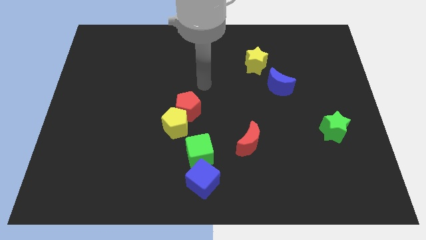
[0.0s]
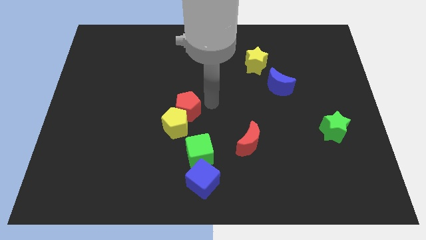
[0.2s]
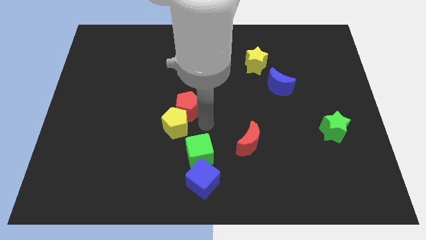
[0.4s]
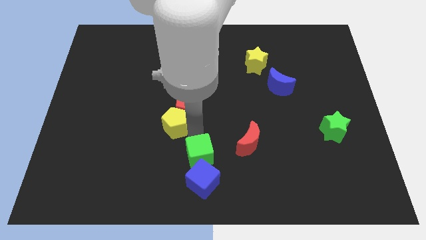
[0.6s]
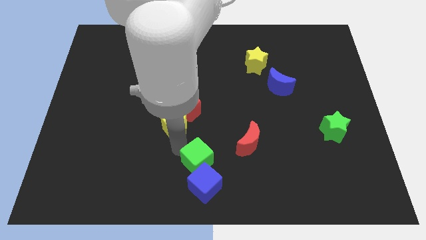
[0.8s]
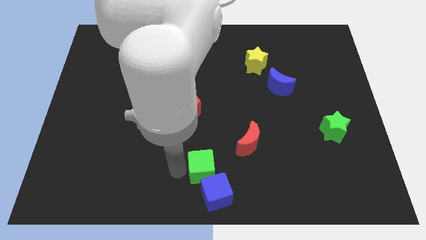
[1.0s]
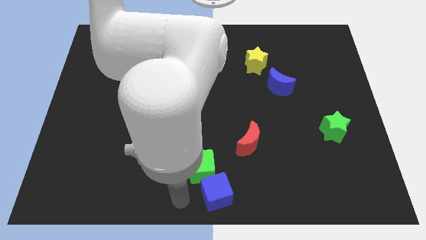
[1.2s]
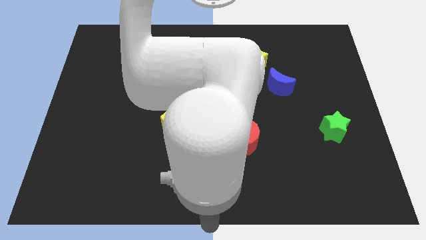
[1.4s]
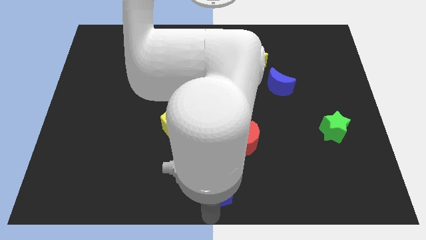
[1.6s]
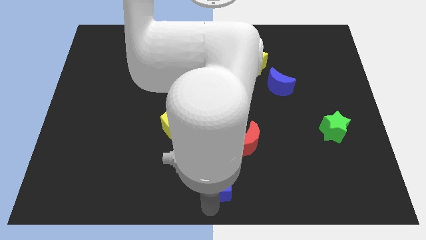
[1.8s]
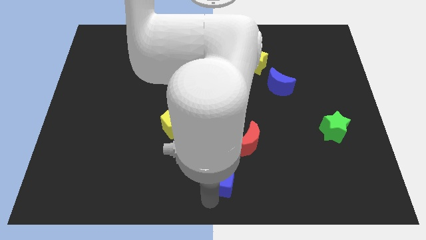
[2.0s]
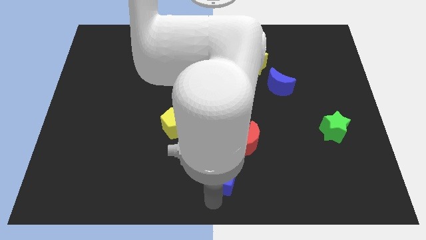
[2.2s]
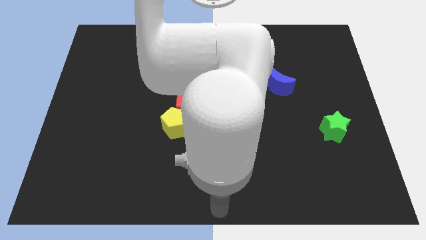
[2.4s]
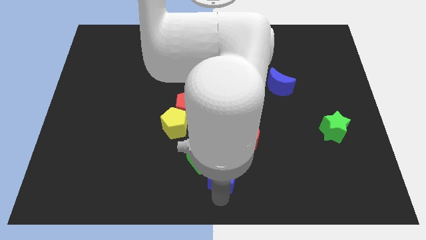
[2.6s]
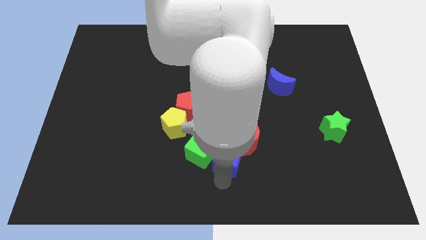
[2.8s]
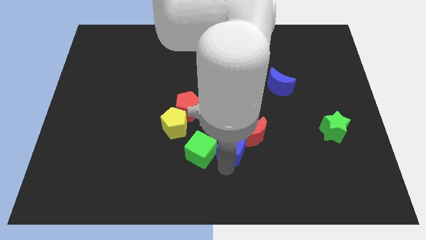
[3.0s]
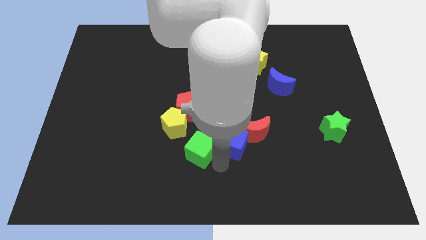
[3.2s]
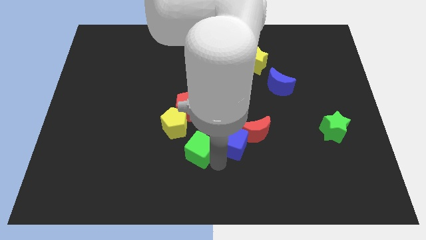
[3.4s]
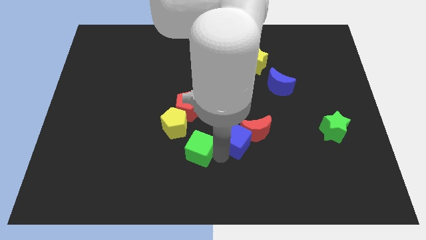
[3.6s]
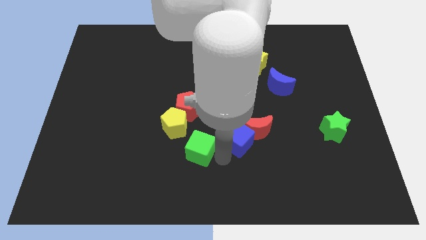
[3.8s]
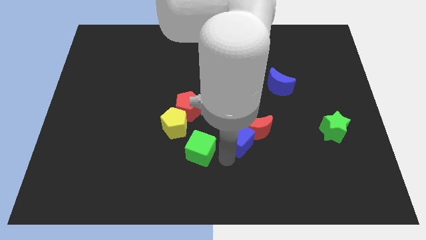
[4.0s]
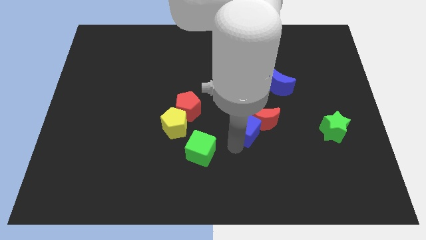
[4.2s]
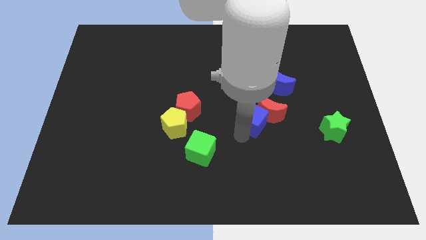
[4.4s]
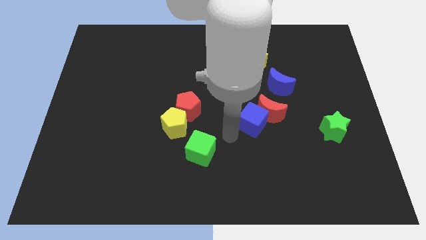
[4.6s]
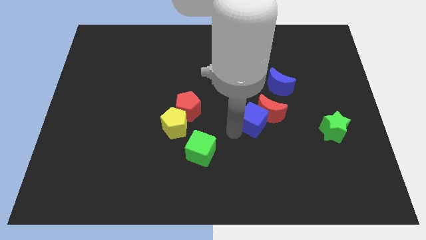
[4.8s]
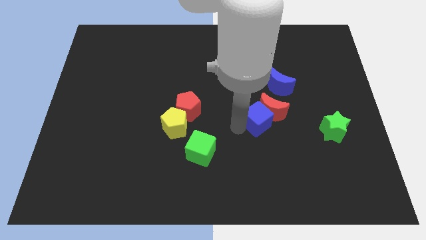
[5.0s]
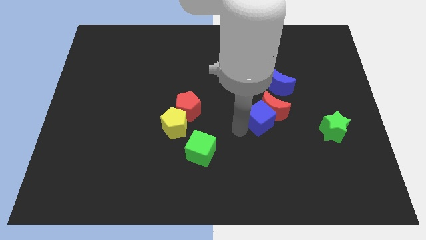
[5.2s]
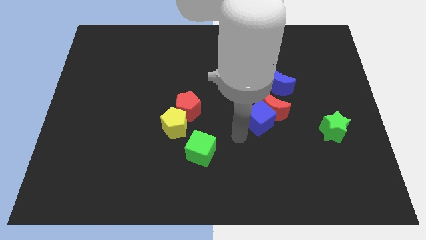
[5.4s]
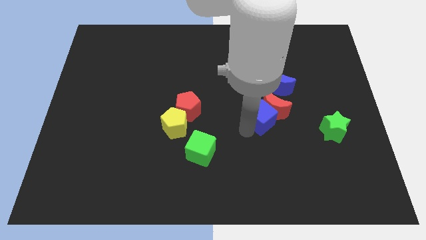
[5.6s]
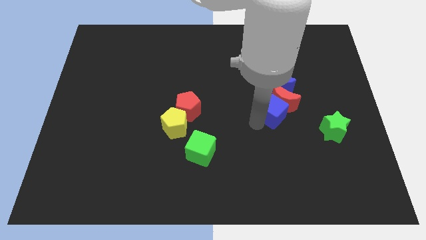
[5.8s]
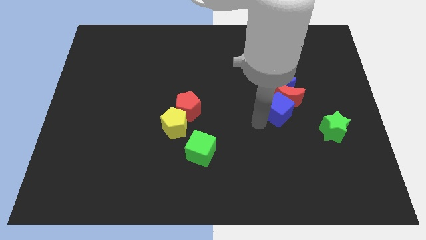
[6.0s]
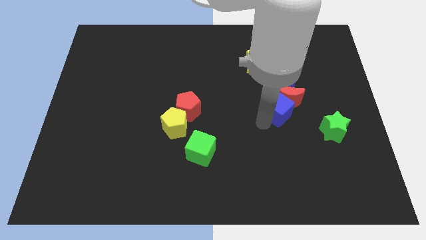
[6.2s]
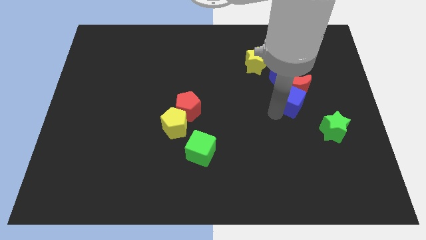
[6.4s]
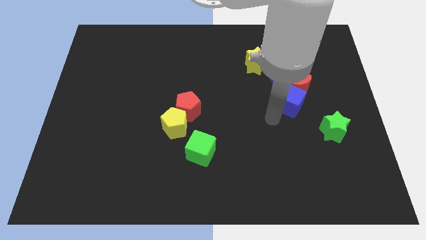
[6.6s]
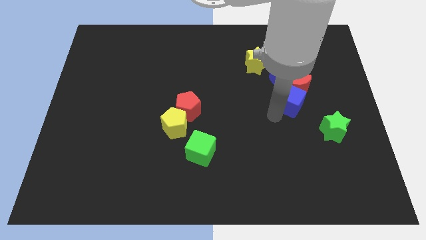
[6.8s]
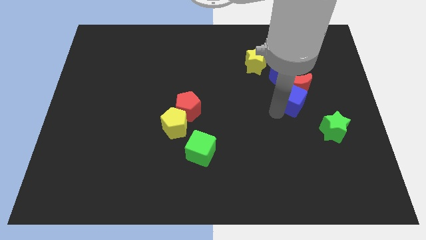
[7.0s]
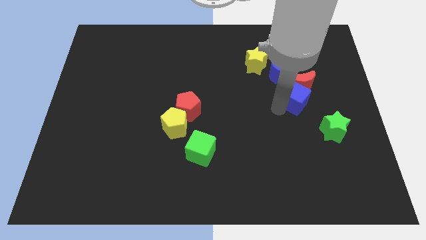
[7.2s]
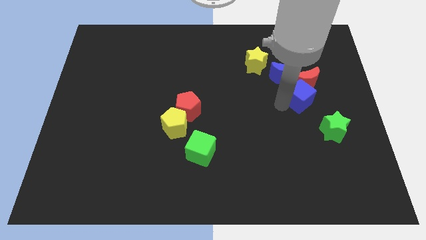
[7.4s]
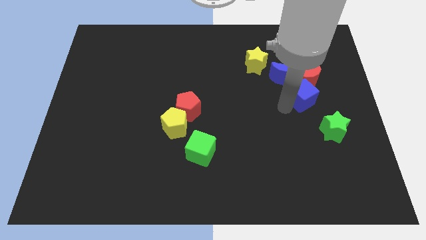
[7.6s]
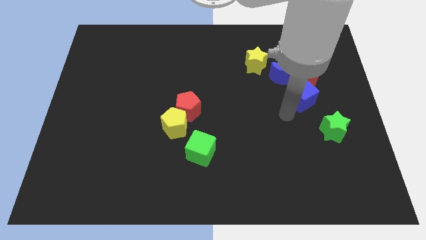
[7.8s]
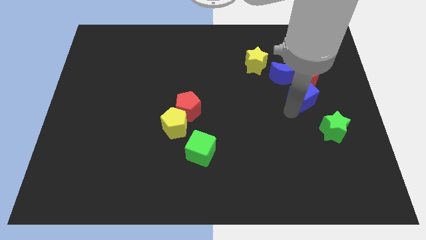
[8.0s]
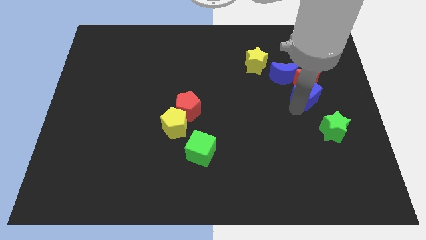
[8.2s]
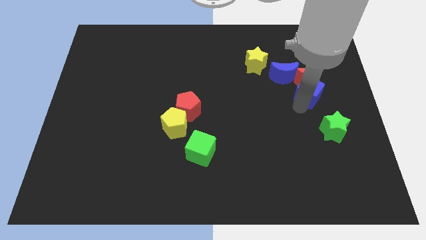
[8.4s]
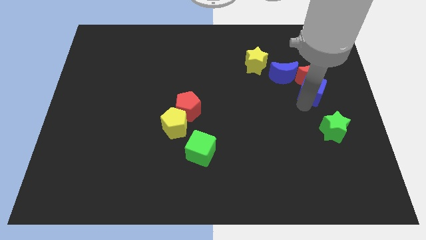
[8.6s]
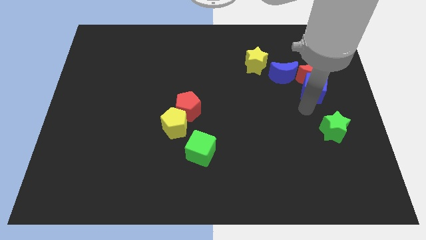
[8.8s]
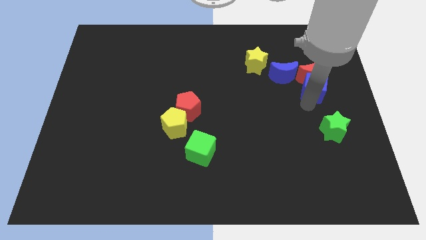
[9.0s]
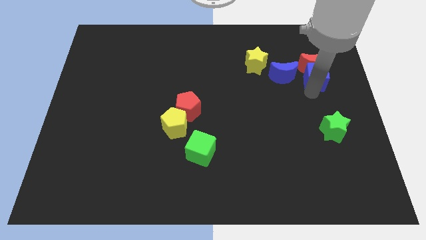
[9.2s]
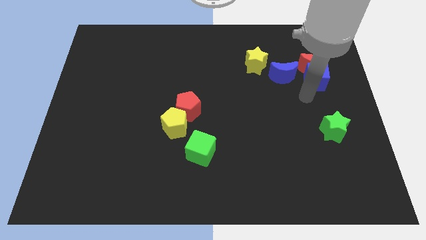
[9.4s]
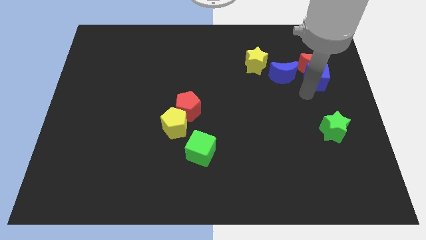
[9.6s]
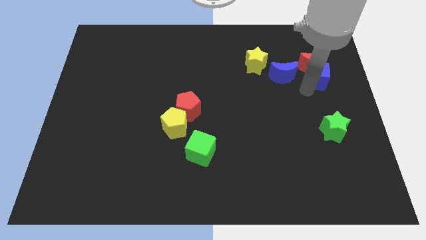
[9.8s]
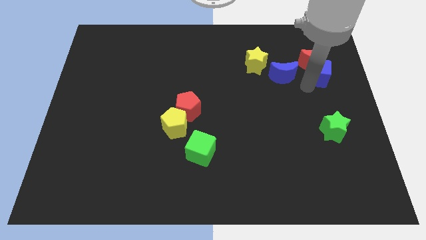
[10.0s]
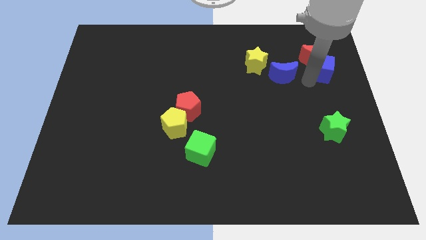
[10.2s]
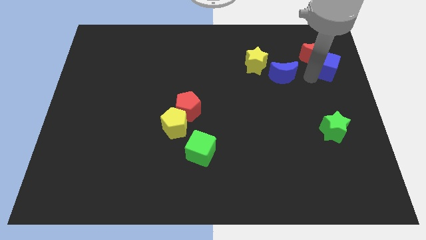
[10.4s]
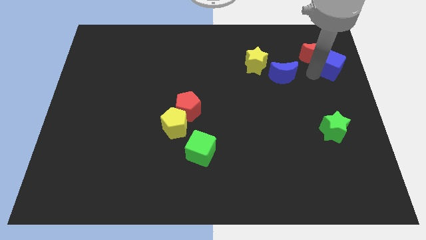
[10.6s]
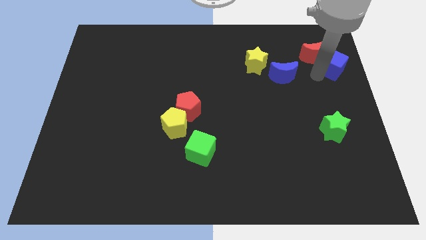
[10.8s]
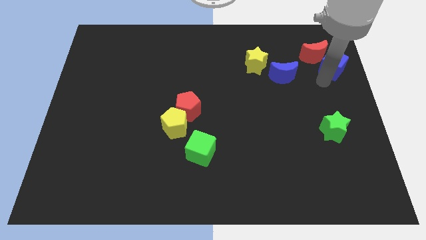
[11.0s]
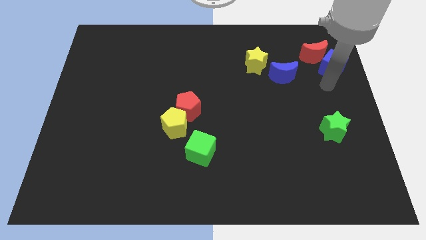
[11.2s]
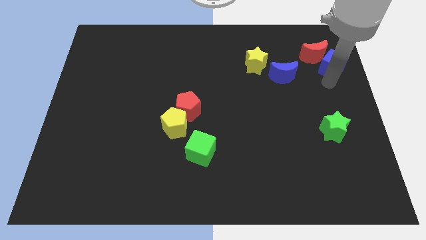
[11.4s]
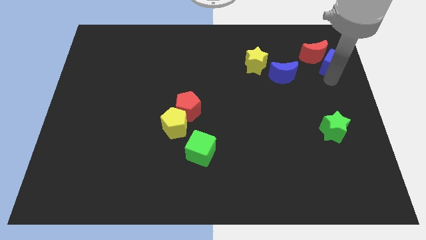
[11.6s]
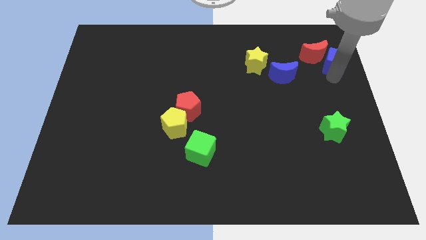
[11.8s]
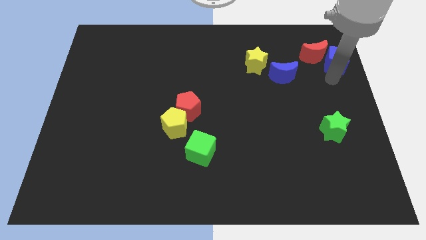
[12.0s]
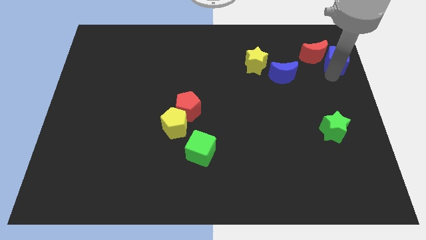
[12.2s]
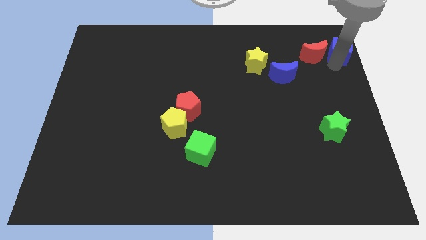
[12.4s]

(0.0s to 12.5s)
push the blue cube to the top right of the board

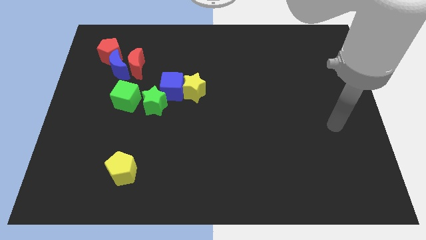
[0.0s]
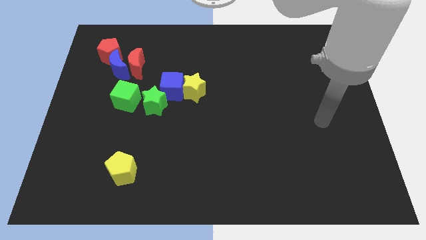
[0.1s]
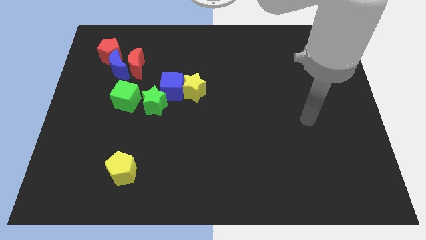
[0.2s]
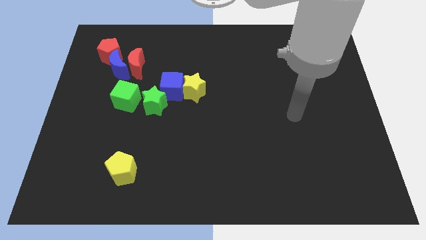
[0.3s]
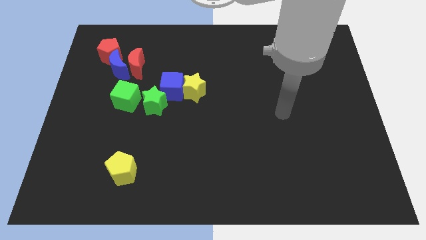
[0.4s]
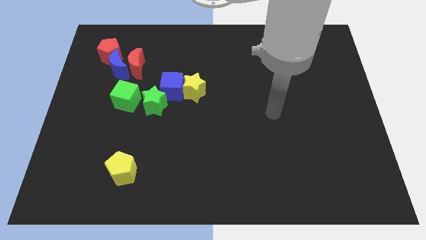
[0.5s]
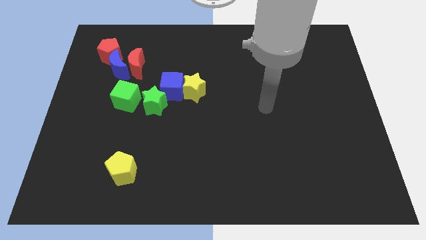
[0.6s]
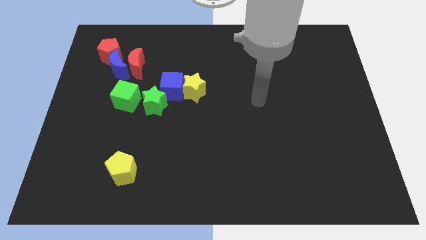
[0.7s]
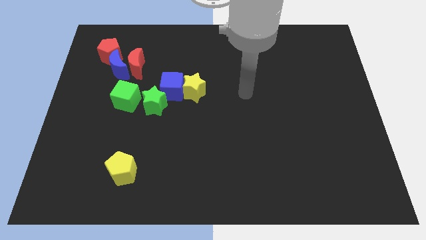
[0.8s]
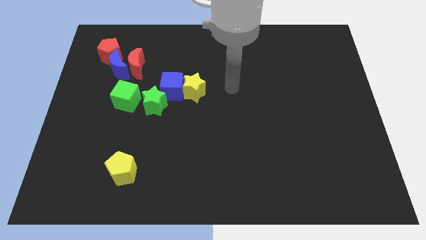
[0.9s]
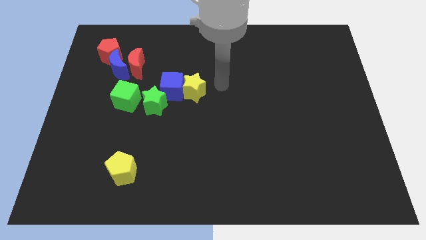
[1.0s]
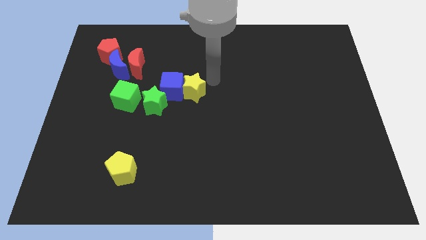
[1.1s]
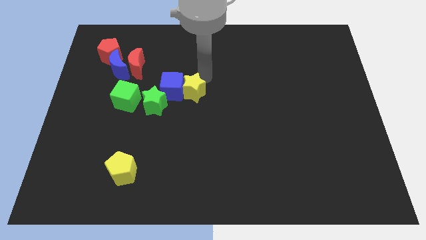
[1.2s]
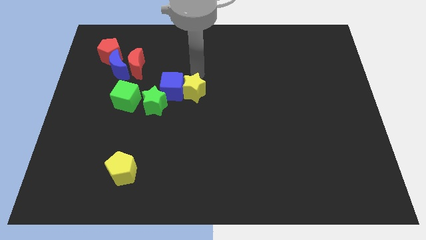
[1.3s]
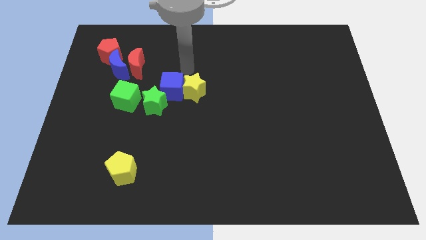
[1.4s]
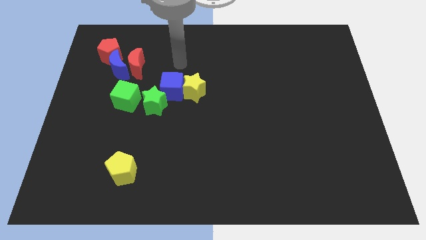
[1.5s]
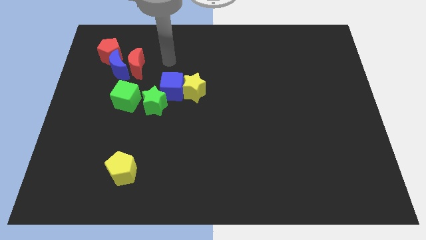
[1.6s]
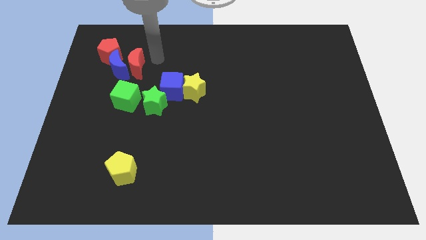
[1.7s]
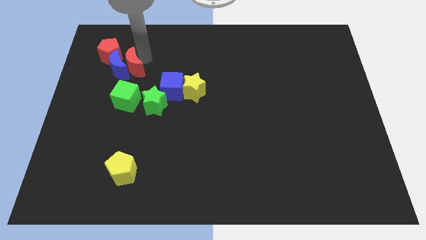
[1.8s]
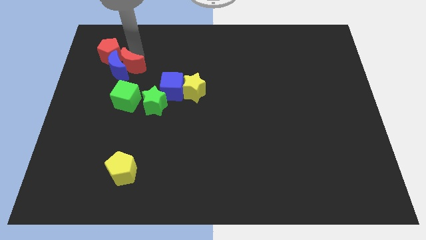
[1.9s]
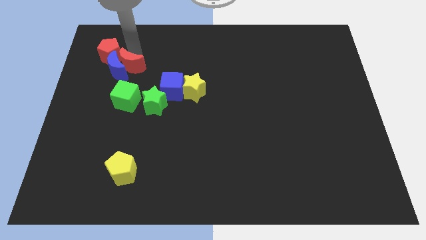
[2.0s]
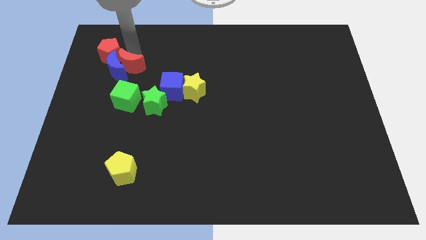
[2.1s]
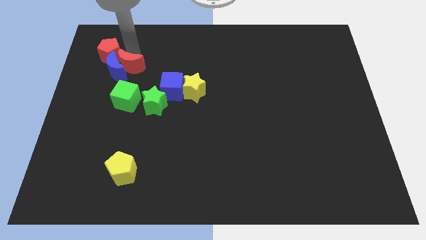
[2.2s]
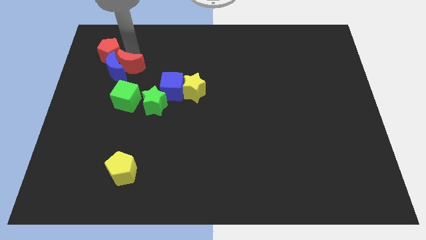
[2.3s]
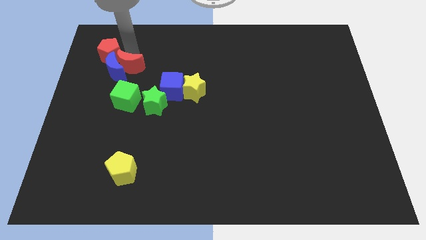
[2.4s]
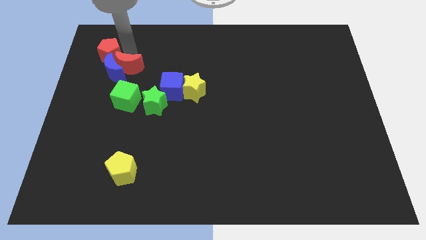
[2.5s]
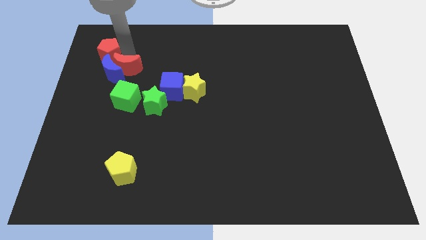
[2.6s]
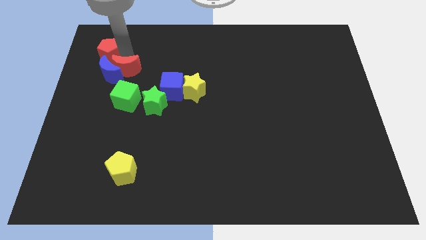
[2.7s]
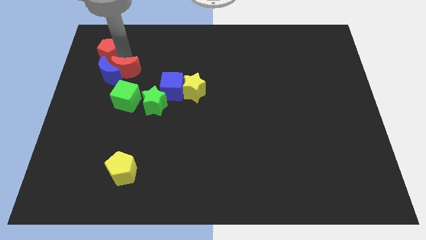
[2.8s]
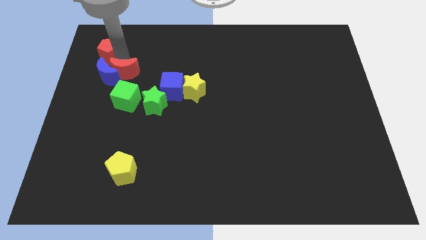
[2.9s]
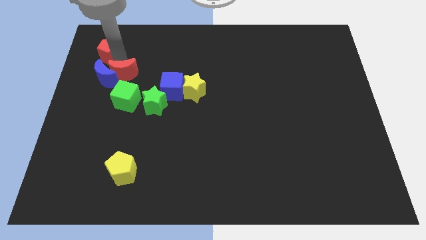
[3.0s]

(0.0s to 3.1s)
put the blue moon to the center left
